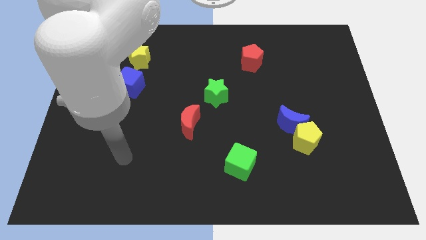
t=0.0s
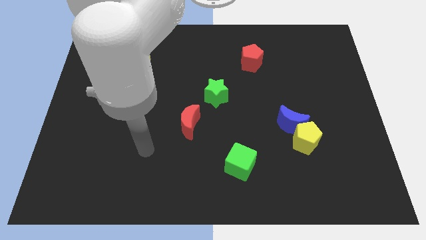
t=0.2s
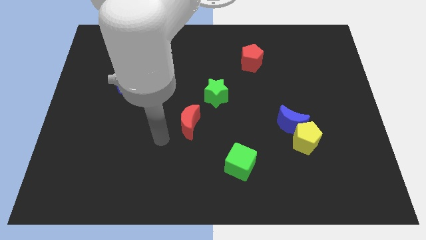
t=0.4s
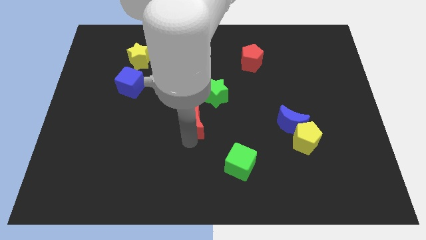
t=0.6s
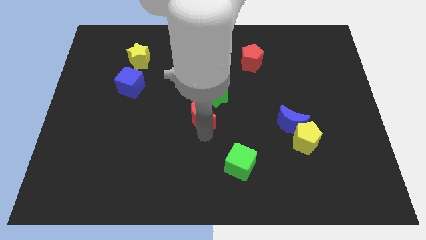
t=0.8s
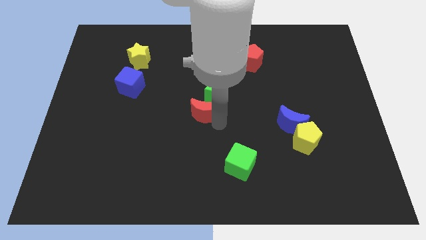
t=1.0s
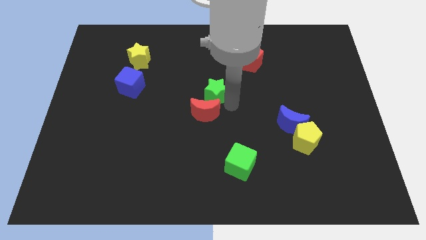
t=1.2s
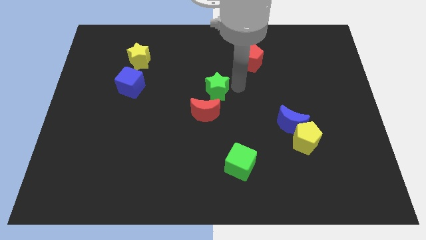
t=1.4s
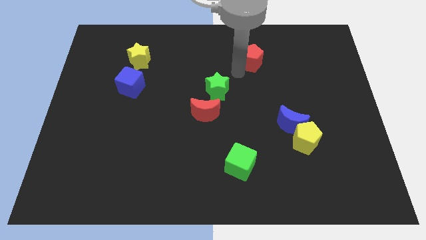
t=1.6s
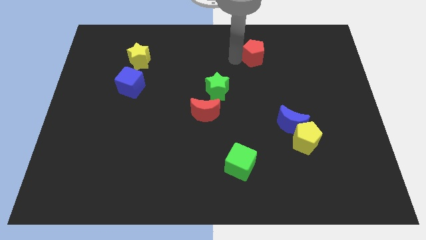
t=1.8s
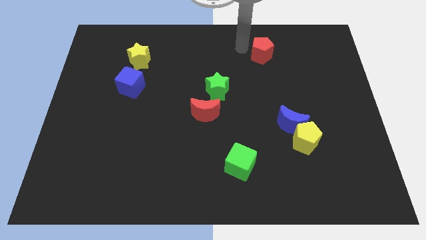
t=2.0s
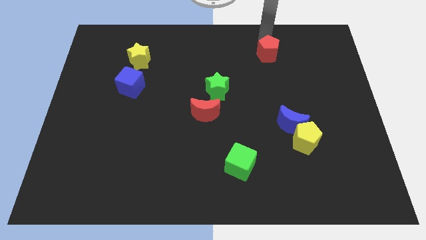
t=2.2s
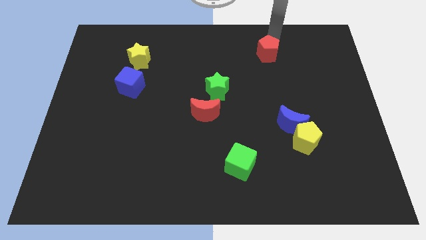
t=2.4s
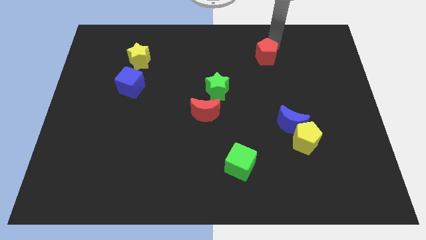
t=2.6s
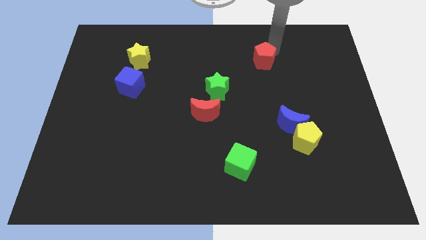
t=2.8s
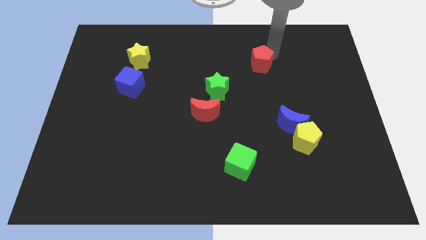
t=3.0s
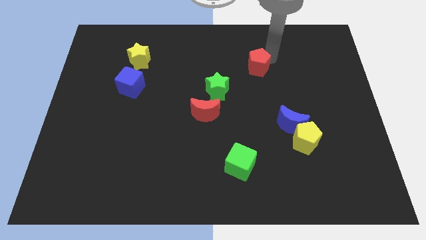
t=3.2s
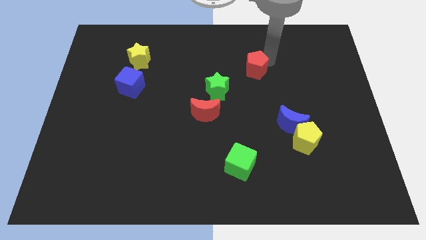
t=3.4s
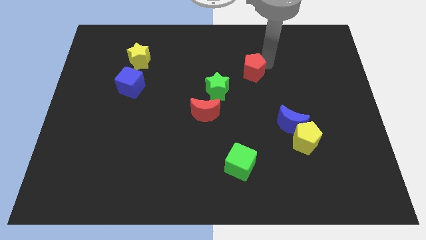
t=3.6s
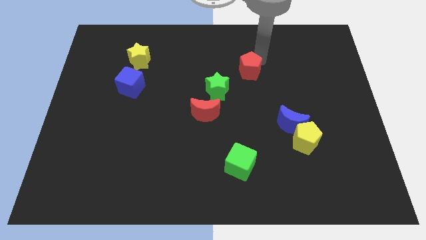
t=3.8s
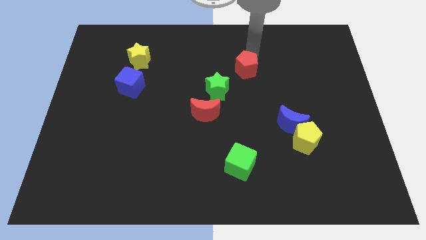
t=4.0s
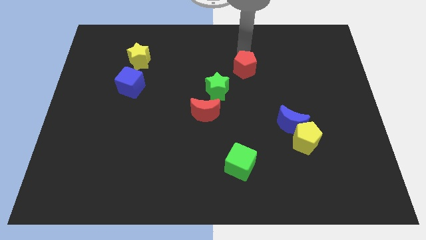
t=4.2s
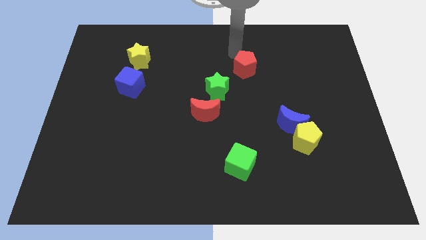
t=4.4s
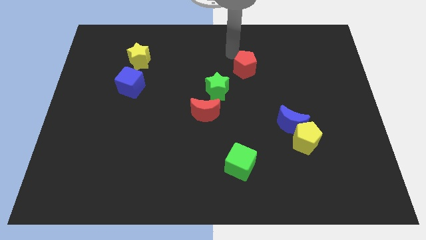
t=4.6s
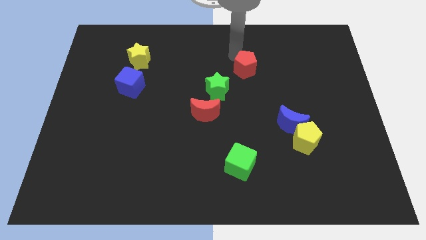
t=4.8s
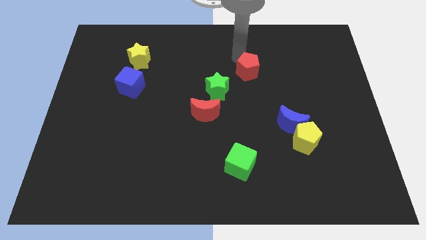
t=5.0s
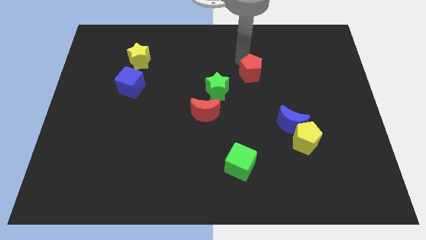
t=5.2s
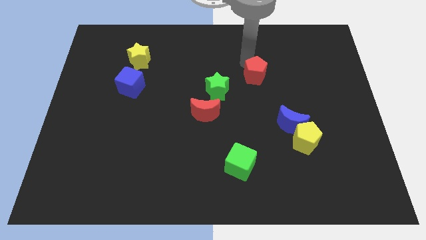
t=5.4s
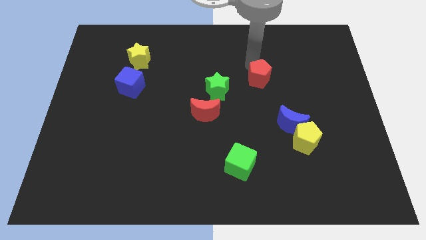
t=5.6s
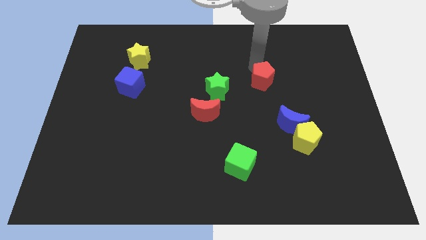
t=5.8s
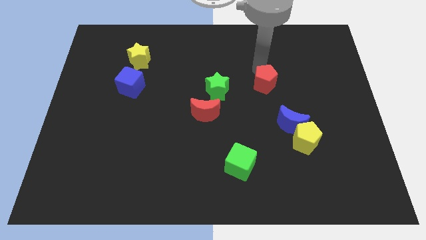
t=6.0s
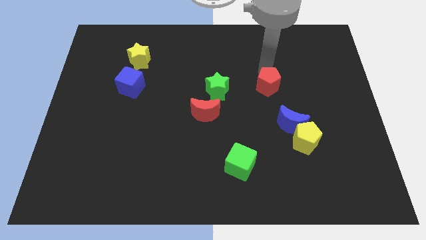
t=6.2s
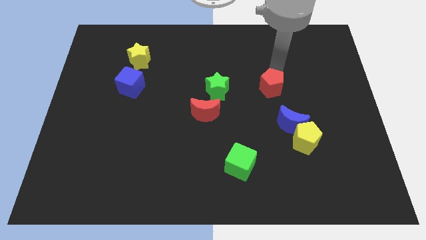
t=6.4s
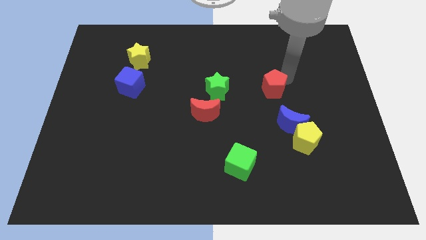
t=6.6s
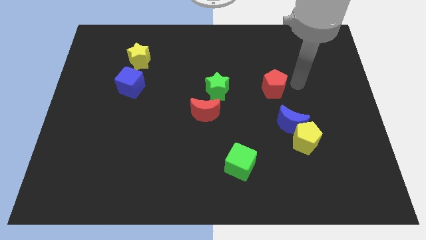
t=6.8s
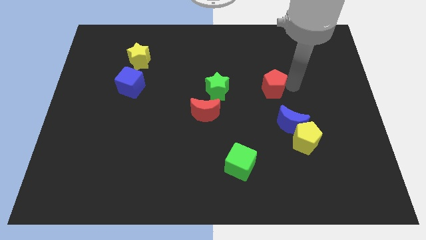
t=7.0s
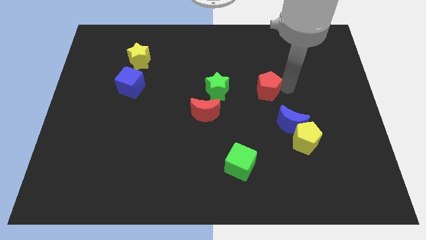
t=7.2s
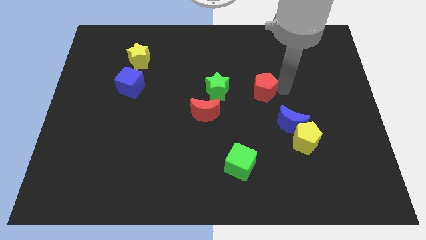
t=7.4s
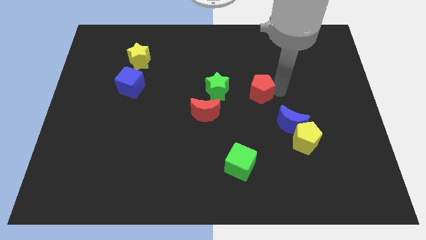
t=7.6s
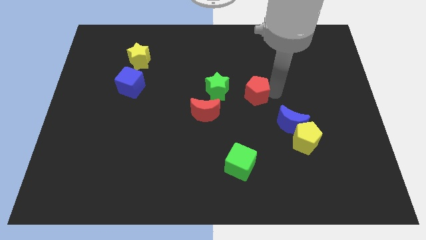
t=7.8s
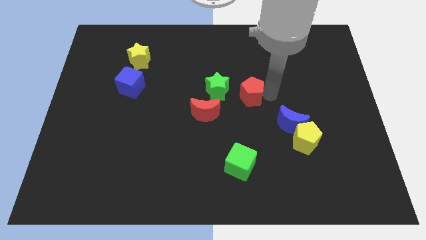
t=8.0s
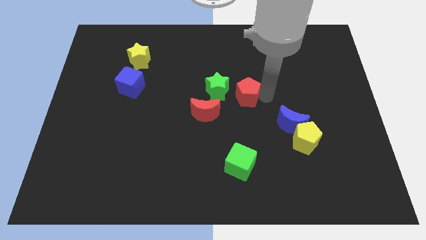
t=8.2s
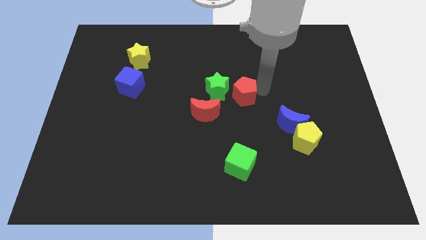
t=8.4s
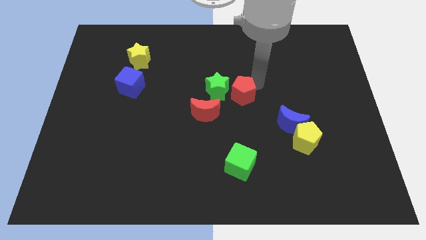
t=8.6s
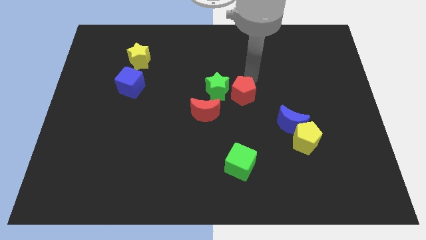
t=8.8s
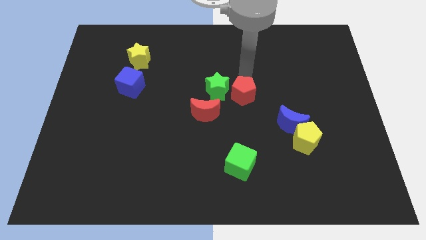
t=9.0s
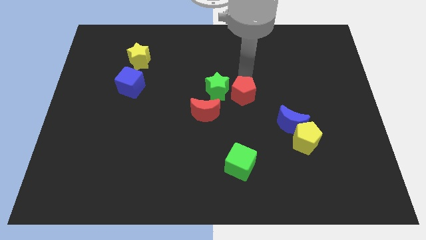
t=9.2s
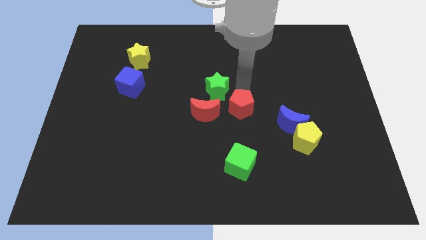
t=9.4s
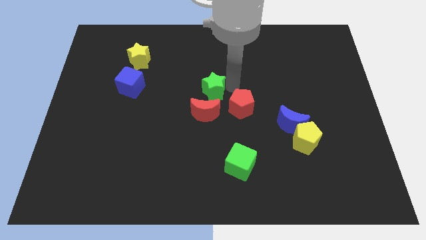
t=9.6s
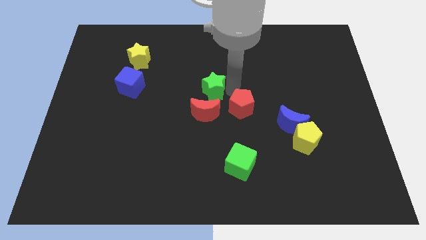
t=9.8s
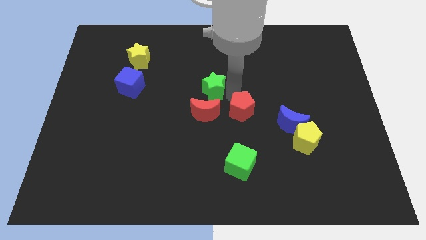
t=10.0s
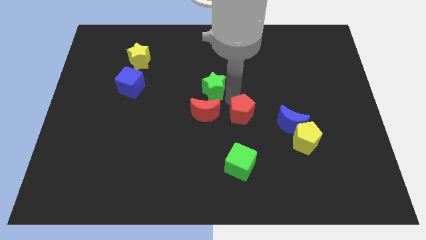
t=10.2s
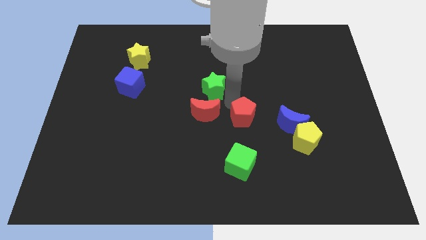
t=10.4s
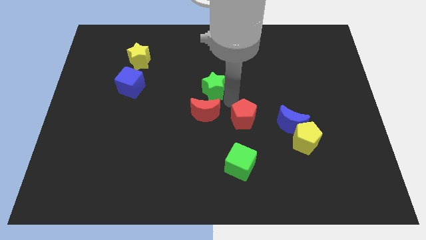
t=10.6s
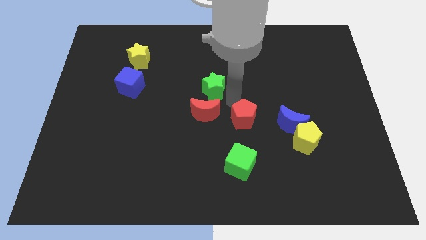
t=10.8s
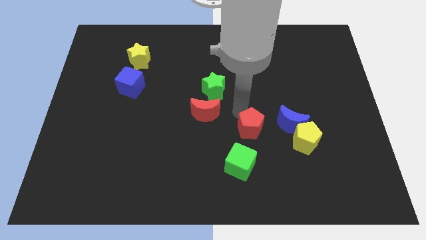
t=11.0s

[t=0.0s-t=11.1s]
put the red pentagon just left of the yellow pentagon

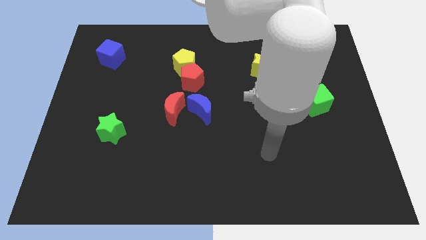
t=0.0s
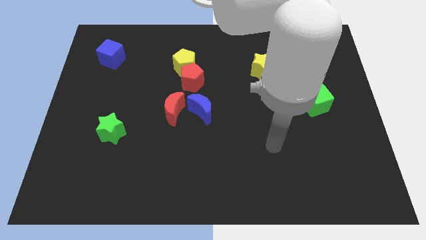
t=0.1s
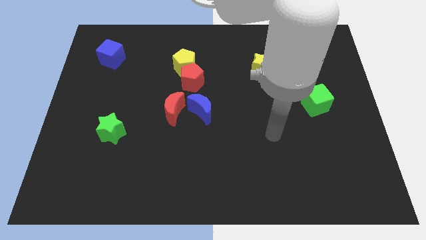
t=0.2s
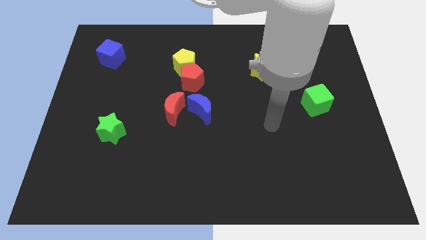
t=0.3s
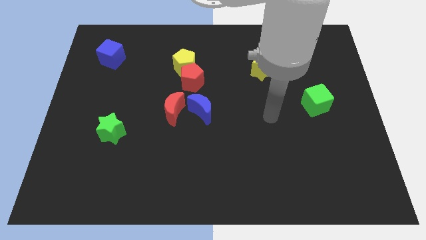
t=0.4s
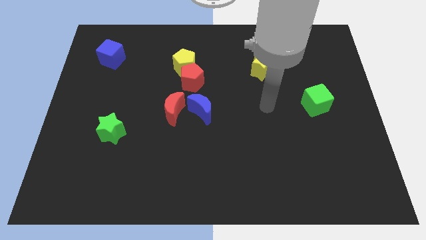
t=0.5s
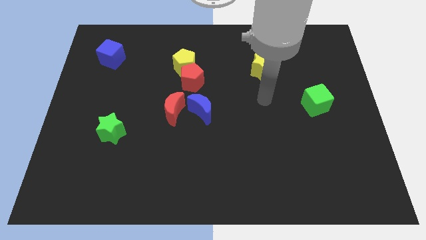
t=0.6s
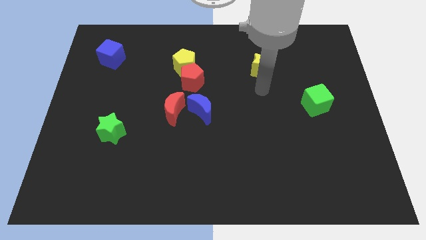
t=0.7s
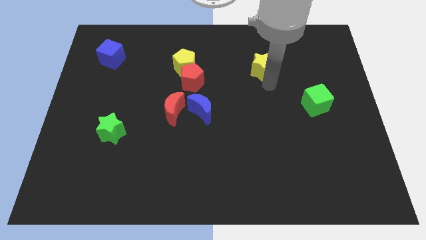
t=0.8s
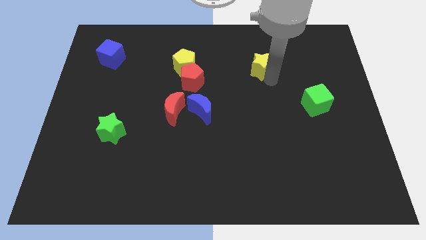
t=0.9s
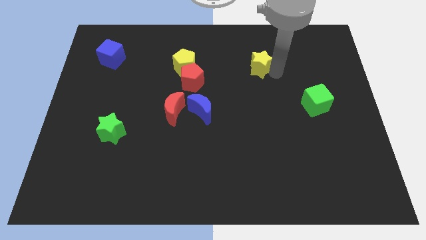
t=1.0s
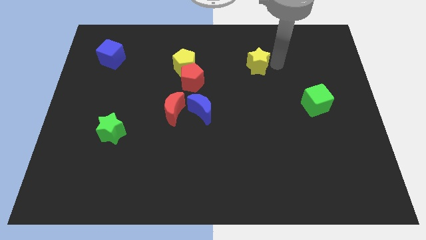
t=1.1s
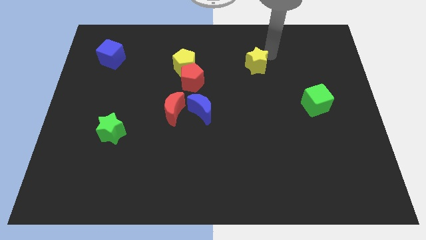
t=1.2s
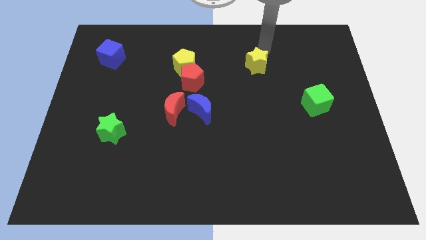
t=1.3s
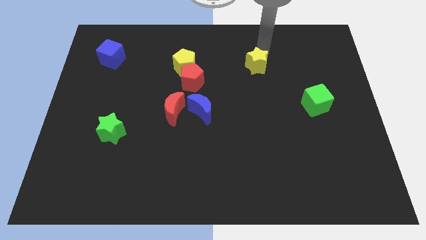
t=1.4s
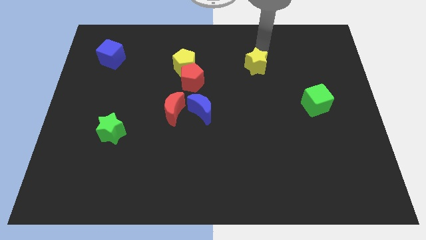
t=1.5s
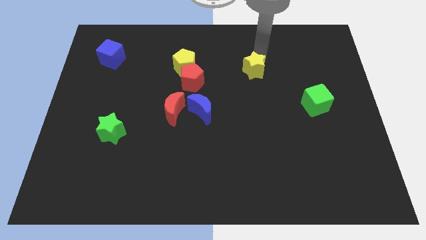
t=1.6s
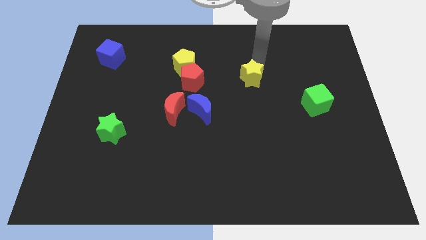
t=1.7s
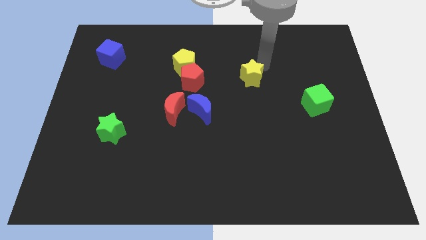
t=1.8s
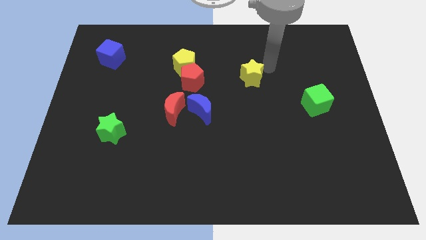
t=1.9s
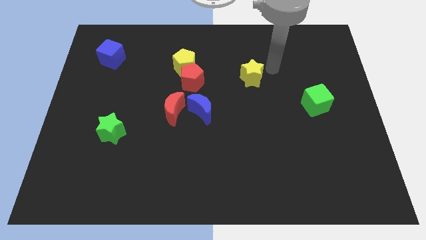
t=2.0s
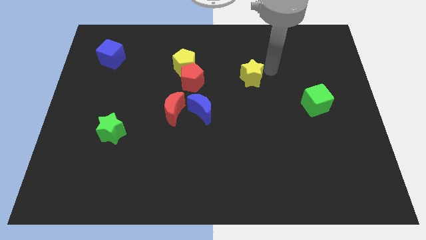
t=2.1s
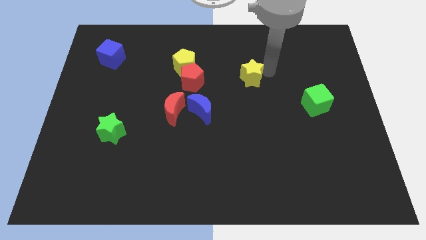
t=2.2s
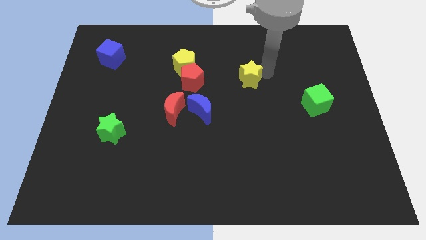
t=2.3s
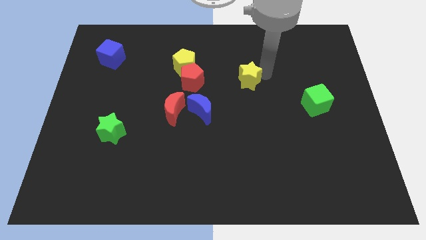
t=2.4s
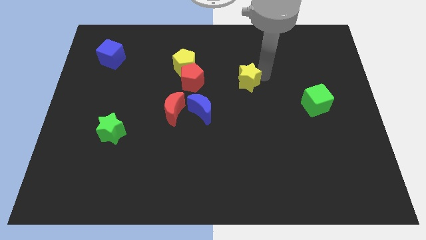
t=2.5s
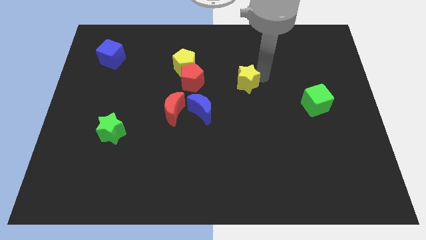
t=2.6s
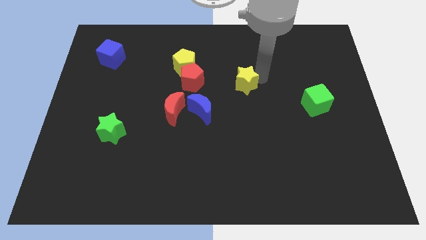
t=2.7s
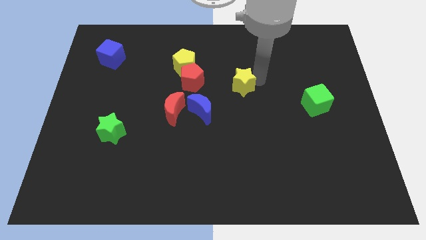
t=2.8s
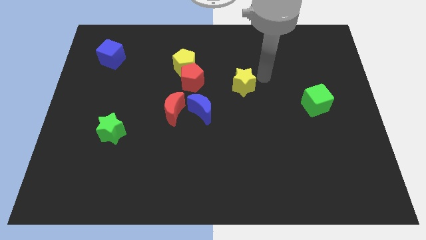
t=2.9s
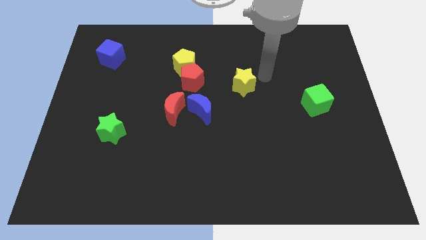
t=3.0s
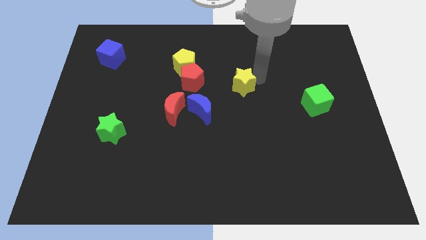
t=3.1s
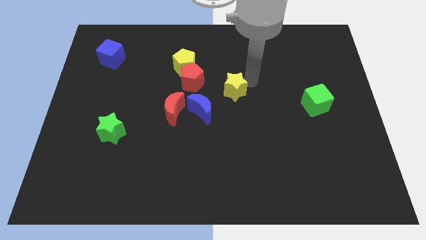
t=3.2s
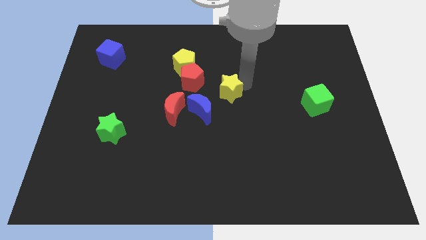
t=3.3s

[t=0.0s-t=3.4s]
slide the yellow star diagonally down and to the right of the red pentagon

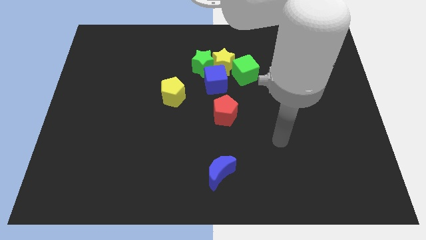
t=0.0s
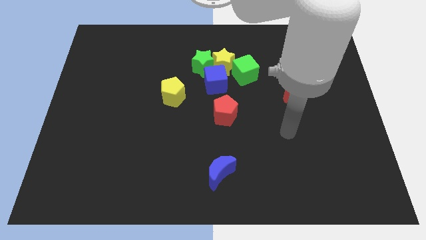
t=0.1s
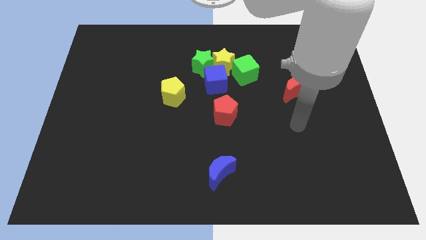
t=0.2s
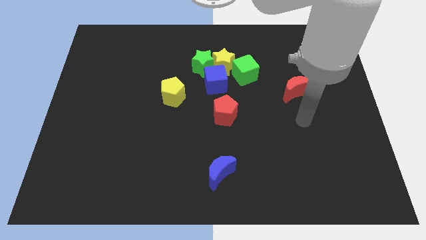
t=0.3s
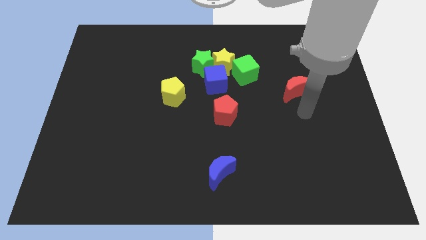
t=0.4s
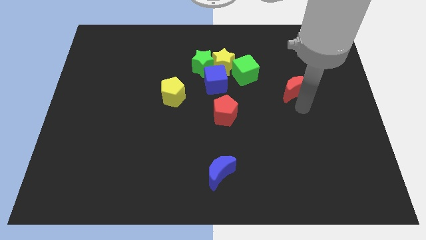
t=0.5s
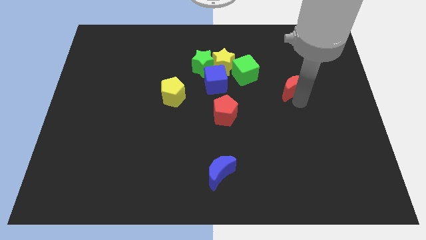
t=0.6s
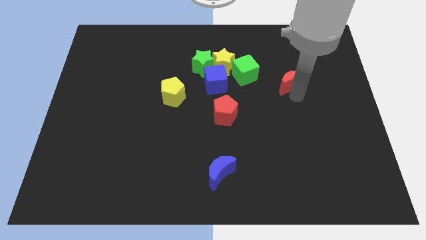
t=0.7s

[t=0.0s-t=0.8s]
push the red moon just right of the green cube
